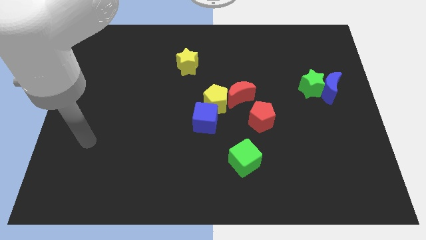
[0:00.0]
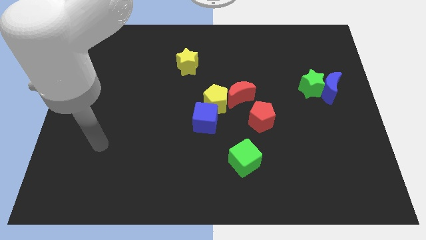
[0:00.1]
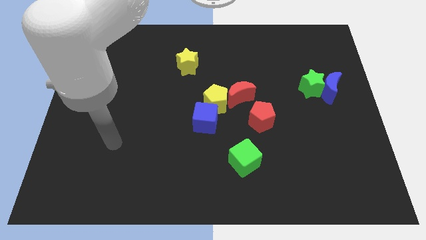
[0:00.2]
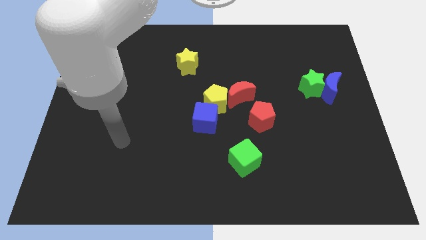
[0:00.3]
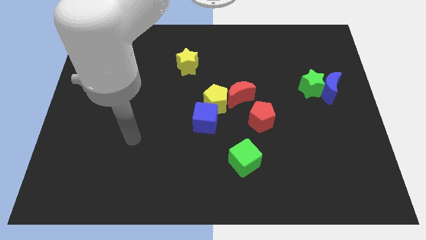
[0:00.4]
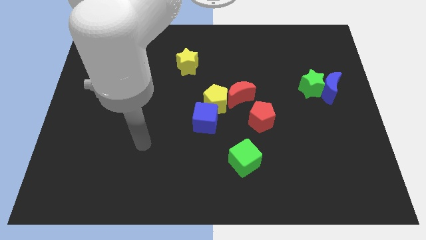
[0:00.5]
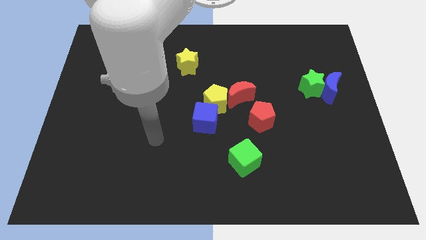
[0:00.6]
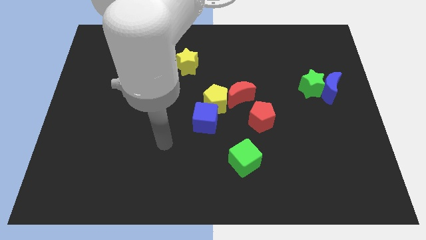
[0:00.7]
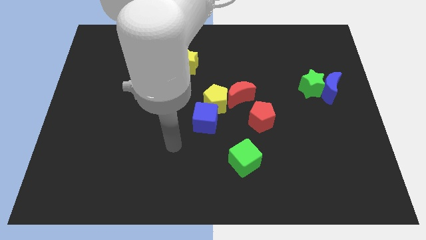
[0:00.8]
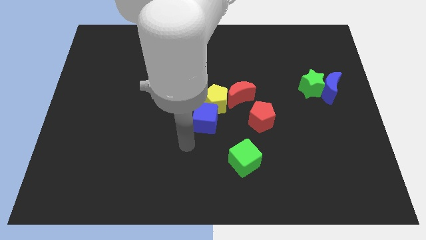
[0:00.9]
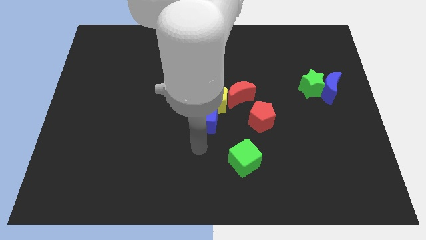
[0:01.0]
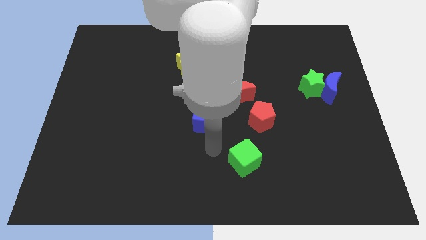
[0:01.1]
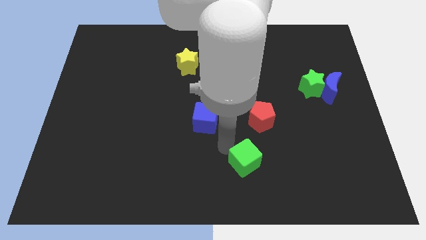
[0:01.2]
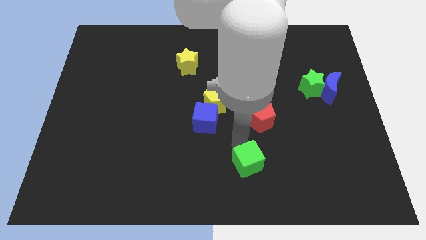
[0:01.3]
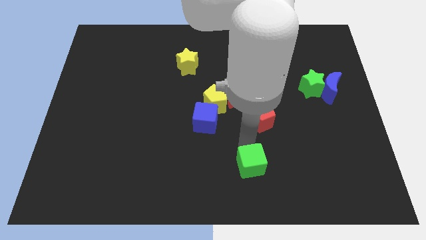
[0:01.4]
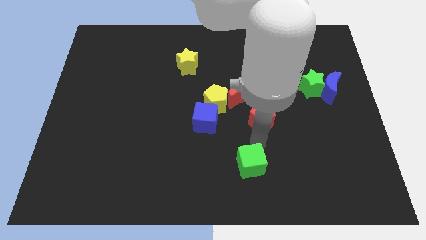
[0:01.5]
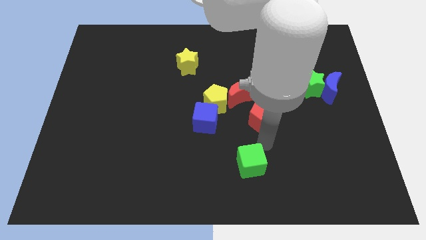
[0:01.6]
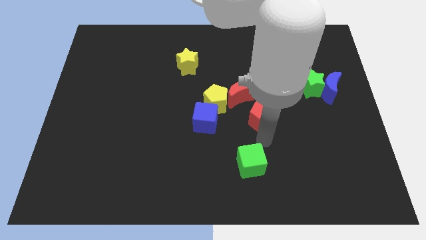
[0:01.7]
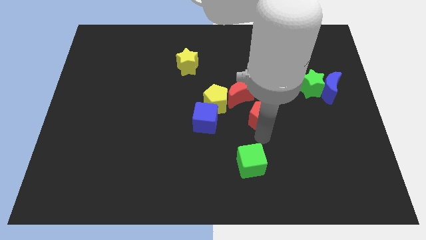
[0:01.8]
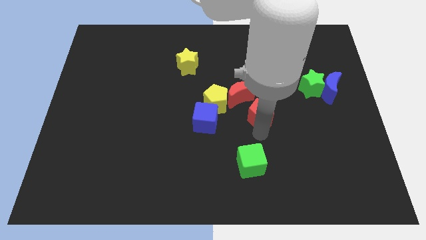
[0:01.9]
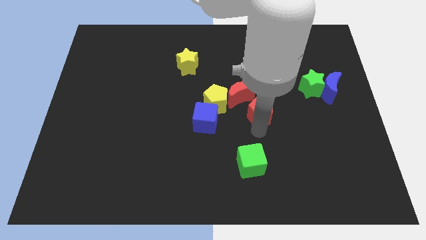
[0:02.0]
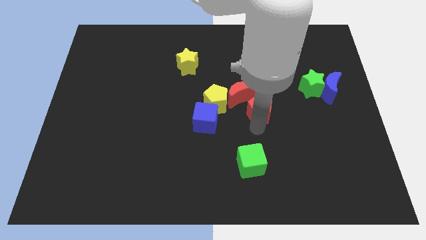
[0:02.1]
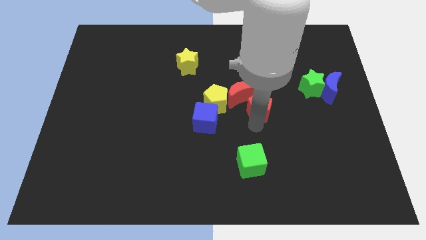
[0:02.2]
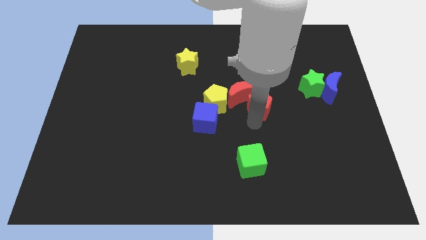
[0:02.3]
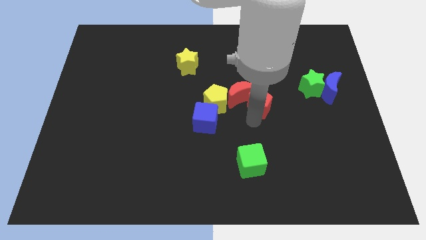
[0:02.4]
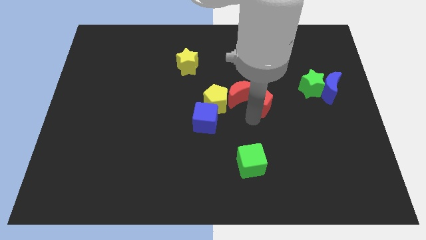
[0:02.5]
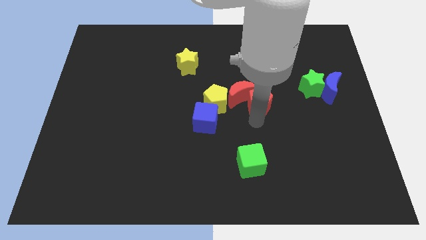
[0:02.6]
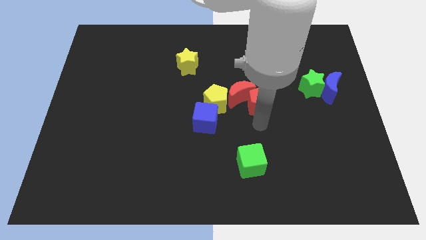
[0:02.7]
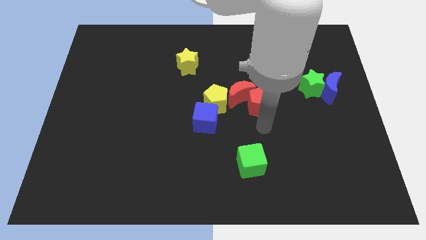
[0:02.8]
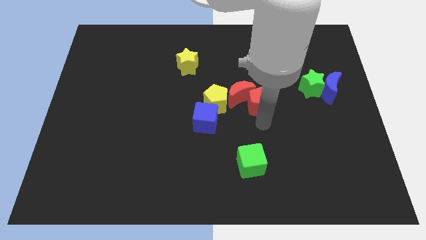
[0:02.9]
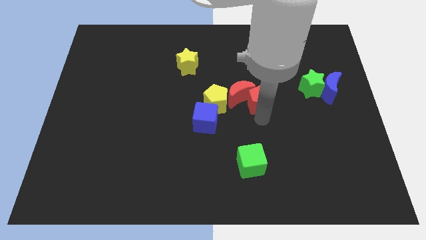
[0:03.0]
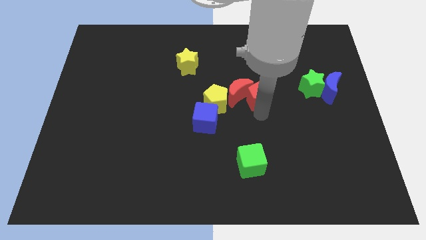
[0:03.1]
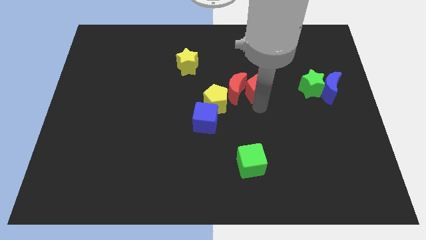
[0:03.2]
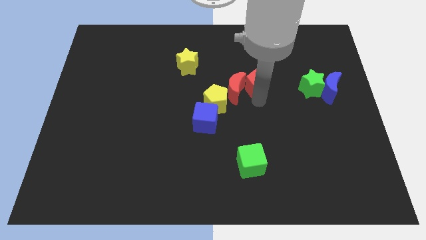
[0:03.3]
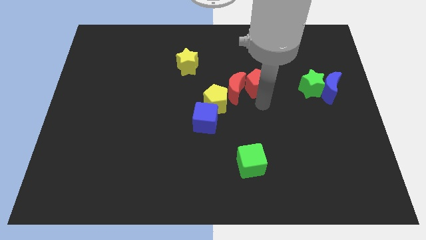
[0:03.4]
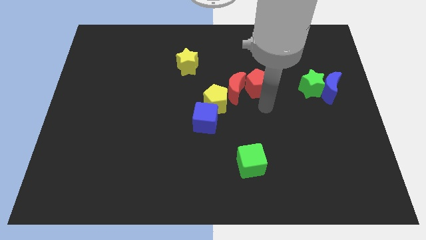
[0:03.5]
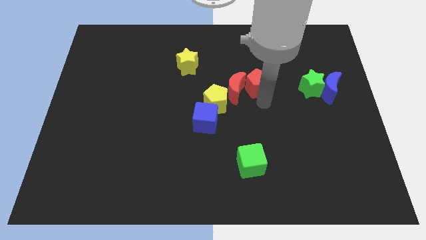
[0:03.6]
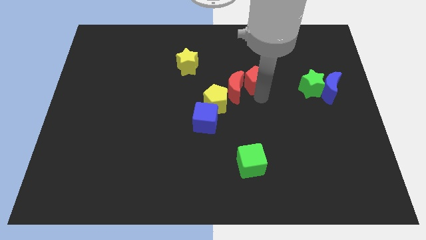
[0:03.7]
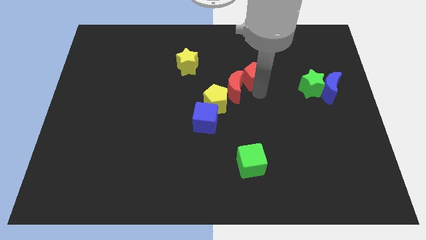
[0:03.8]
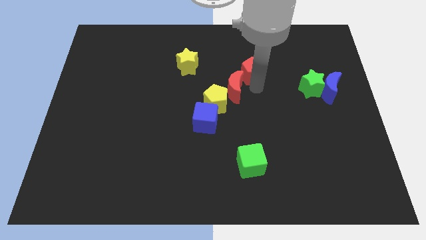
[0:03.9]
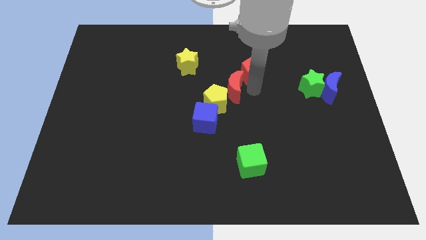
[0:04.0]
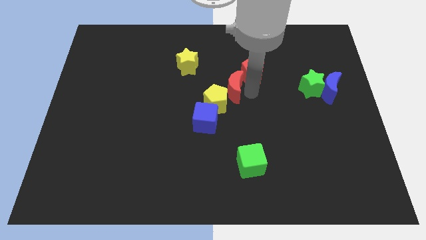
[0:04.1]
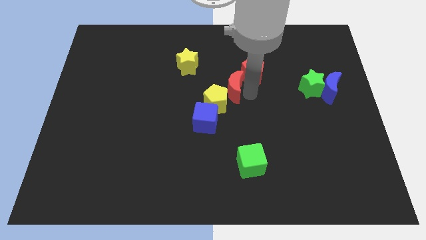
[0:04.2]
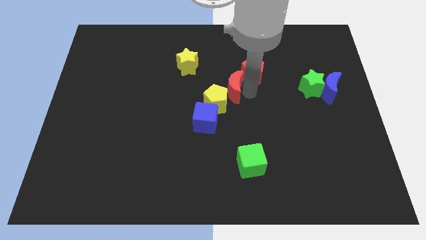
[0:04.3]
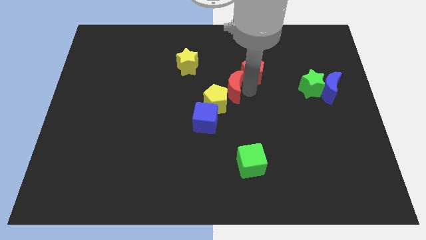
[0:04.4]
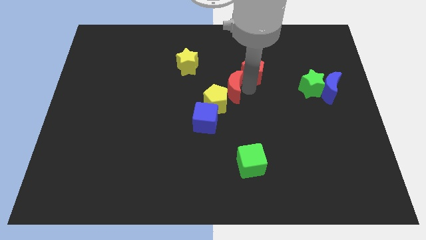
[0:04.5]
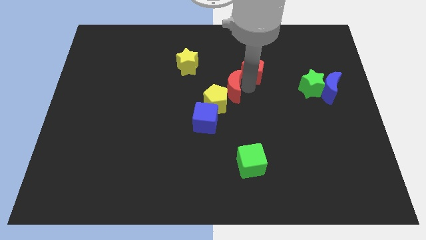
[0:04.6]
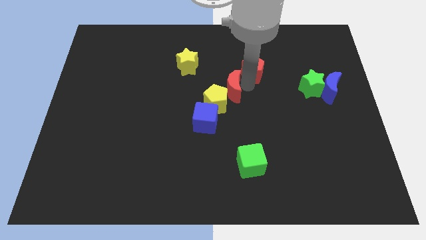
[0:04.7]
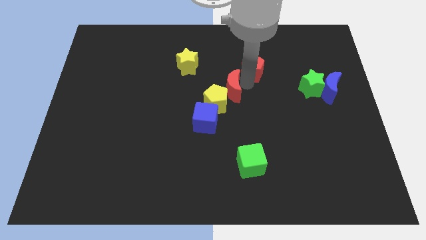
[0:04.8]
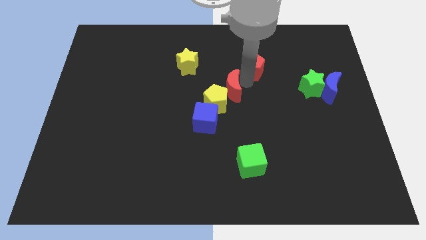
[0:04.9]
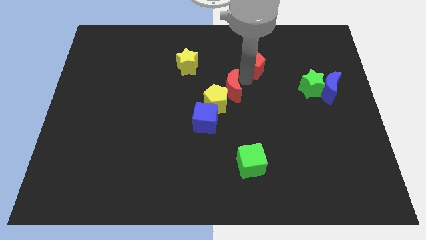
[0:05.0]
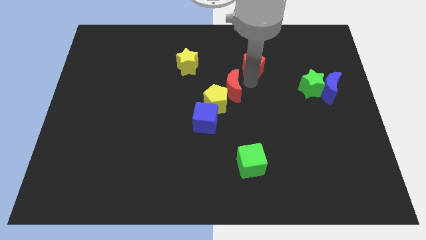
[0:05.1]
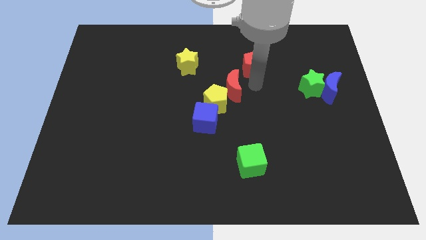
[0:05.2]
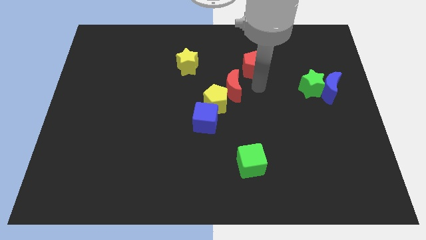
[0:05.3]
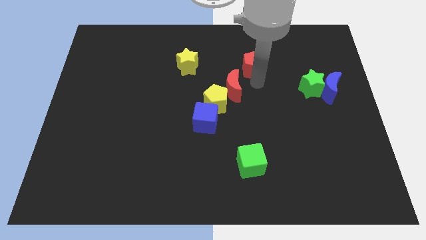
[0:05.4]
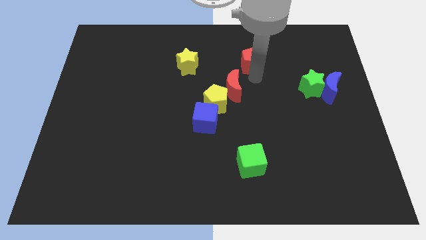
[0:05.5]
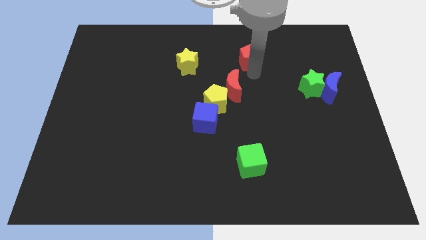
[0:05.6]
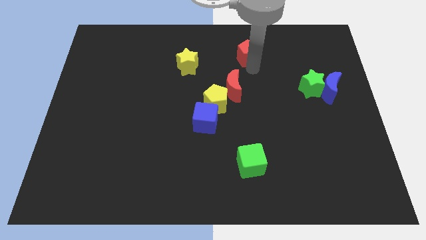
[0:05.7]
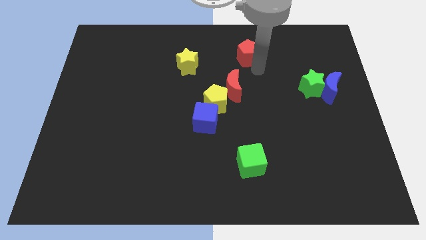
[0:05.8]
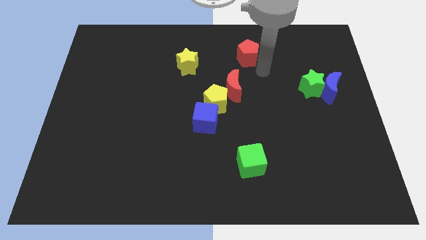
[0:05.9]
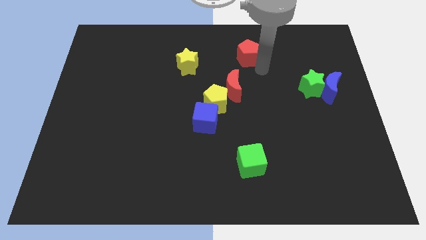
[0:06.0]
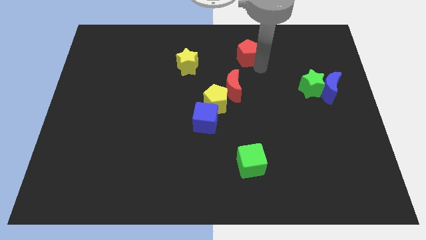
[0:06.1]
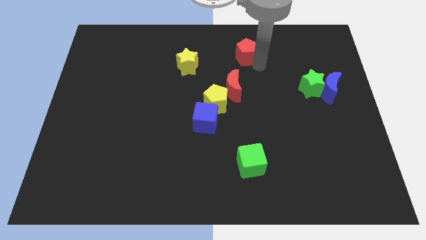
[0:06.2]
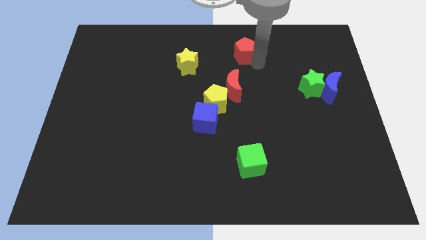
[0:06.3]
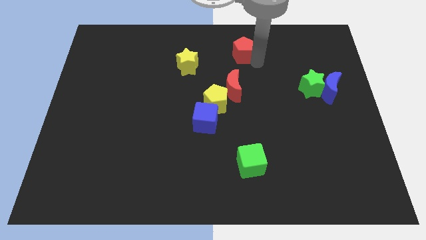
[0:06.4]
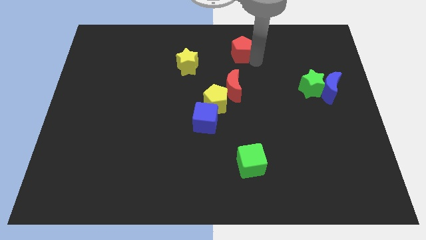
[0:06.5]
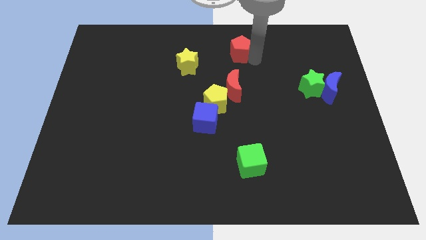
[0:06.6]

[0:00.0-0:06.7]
slide the red pentagon to the towards your base
